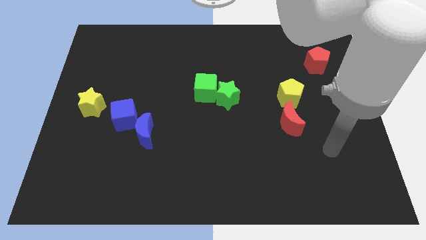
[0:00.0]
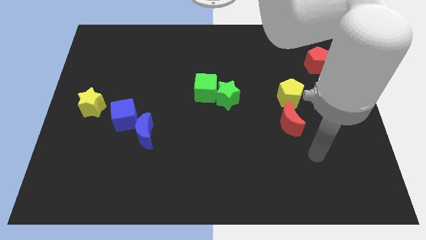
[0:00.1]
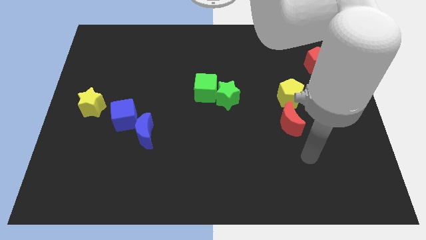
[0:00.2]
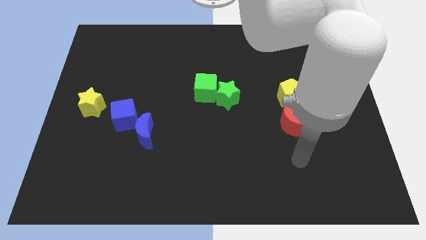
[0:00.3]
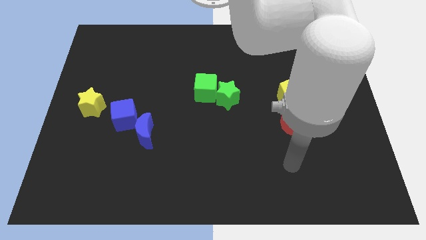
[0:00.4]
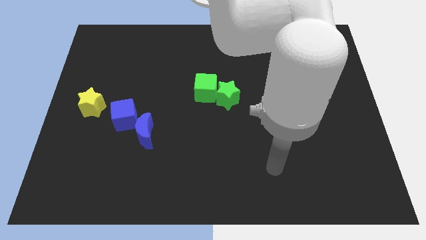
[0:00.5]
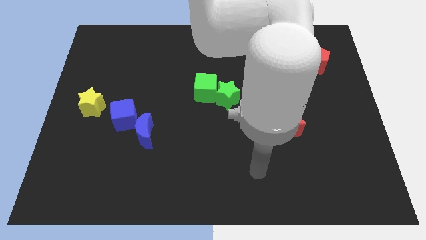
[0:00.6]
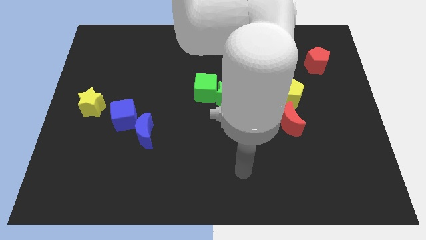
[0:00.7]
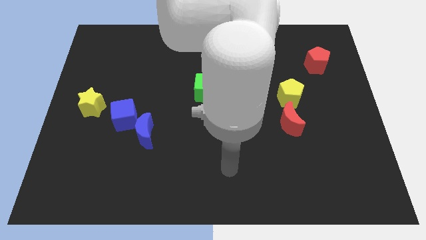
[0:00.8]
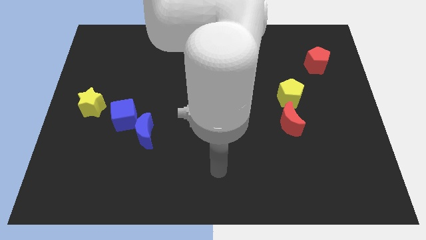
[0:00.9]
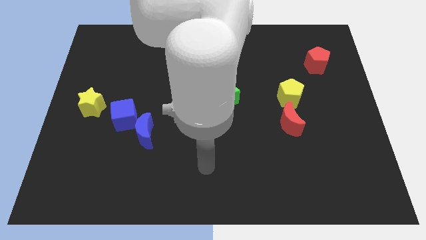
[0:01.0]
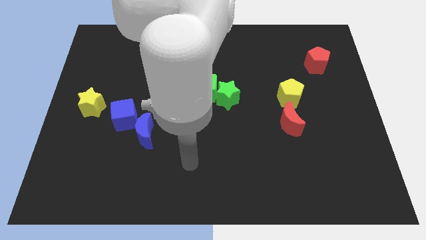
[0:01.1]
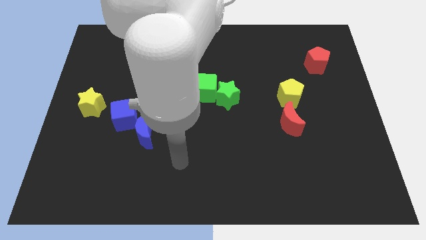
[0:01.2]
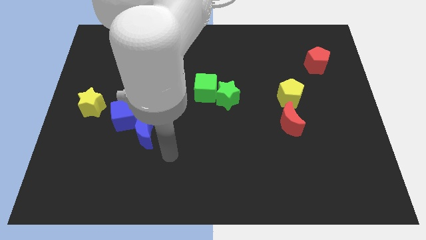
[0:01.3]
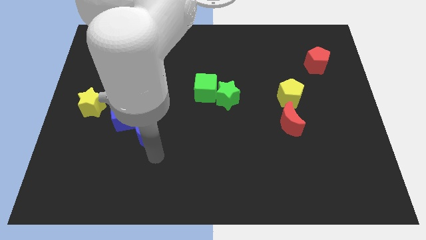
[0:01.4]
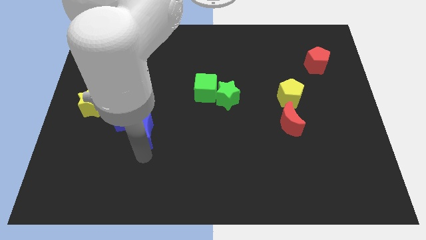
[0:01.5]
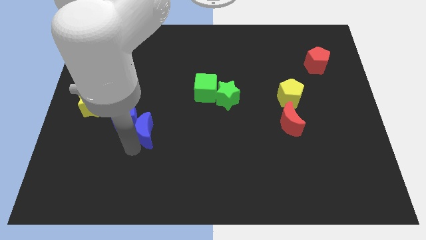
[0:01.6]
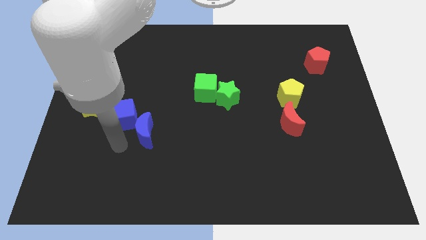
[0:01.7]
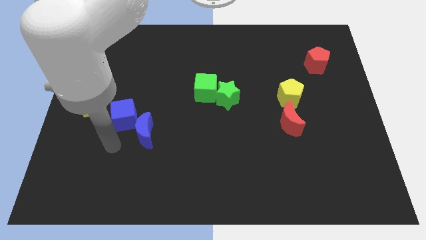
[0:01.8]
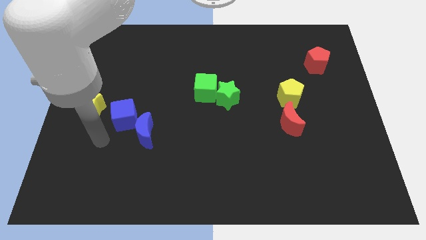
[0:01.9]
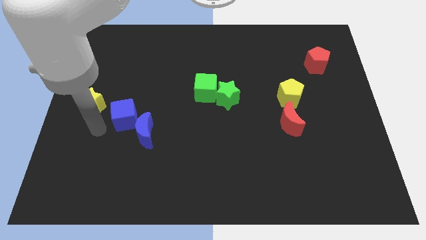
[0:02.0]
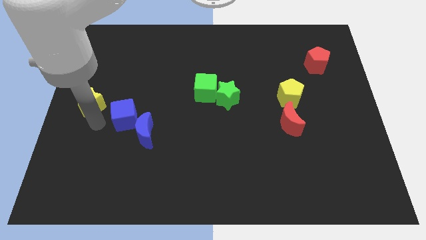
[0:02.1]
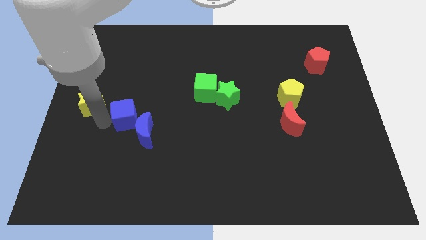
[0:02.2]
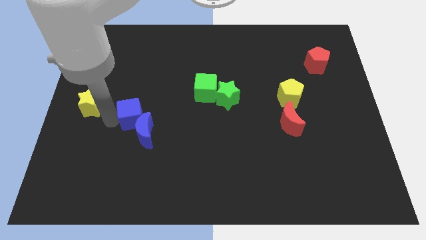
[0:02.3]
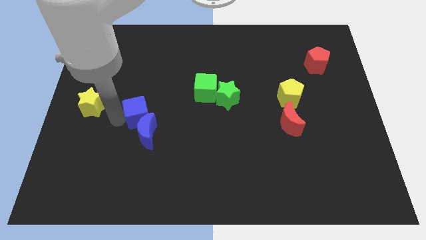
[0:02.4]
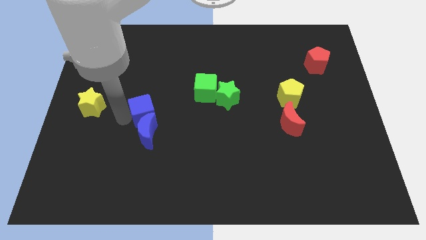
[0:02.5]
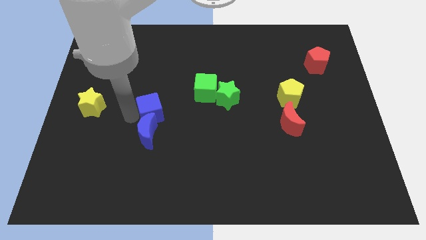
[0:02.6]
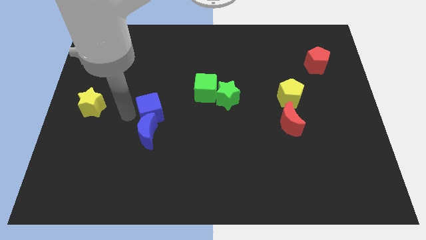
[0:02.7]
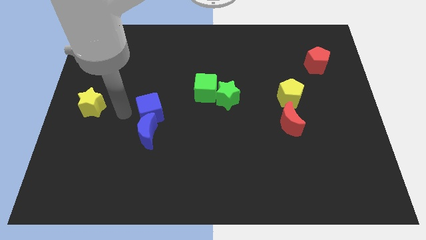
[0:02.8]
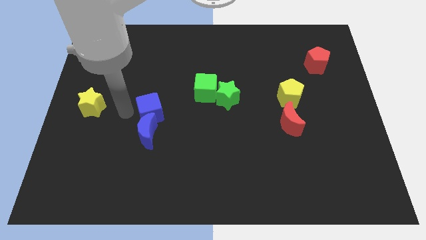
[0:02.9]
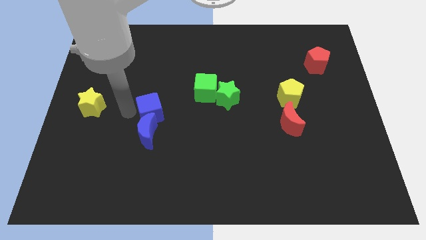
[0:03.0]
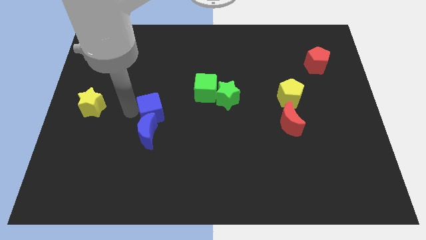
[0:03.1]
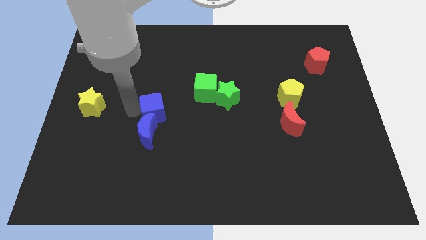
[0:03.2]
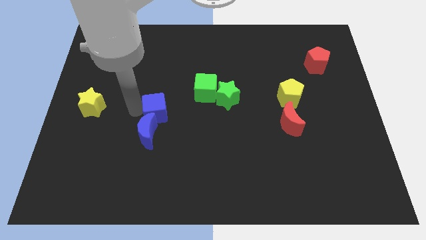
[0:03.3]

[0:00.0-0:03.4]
push the blue cube to the right a bit

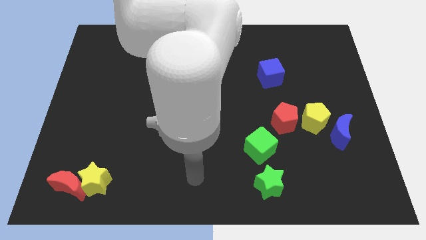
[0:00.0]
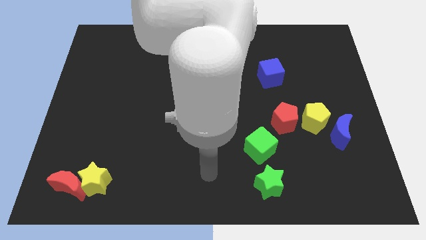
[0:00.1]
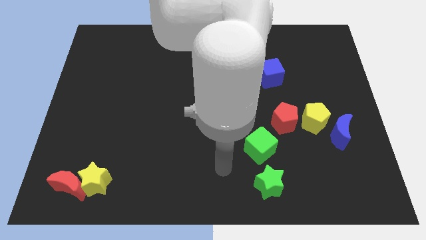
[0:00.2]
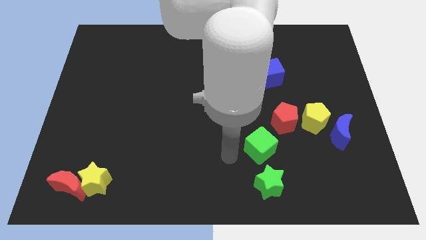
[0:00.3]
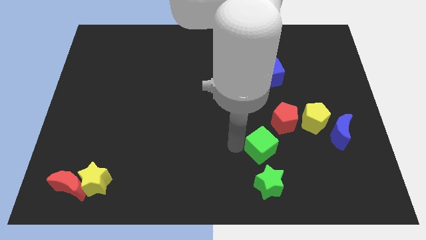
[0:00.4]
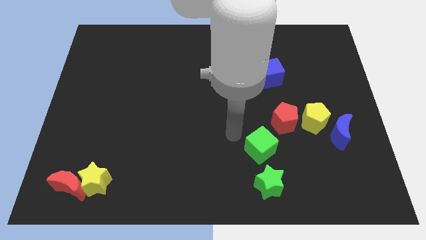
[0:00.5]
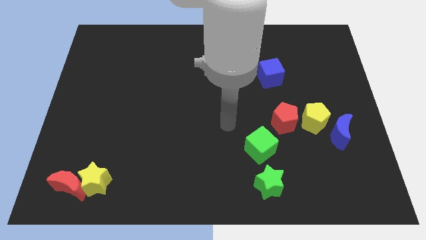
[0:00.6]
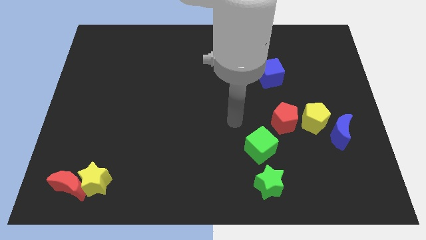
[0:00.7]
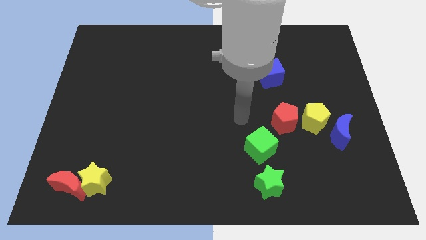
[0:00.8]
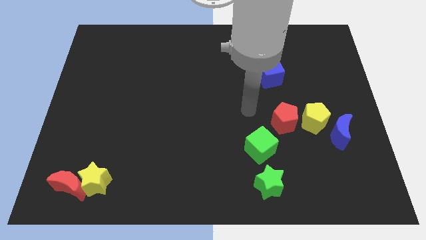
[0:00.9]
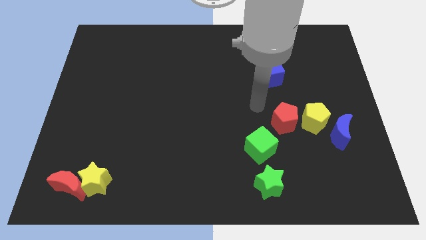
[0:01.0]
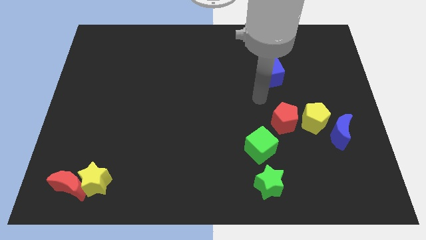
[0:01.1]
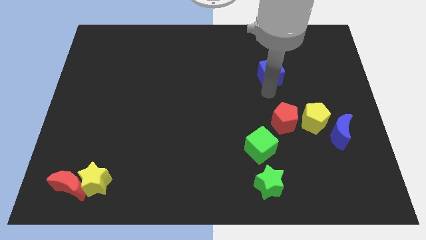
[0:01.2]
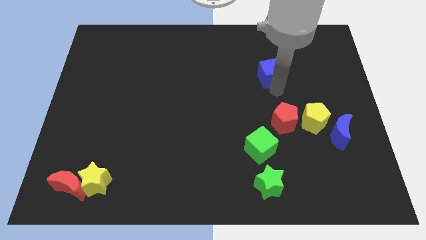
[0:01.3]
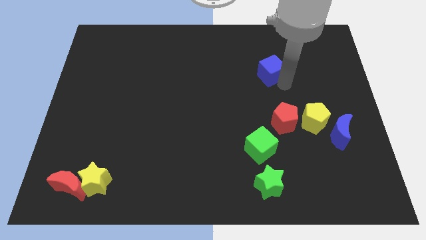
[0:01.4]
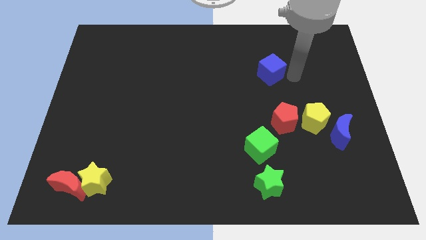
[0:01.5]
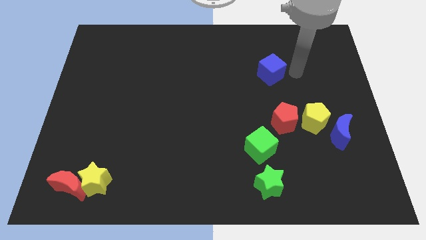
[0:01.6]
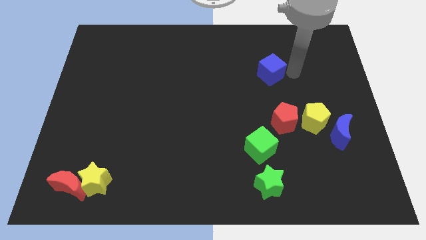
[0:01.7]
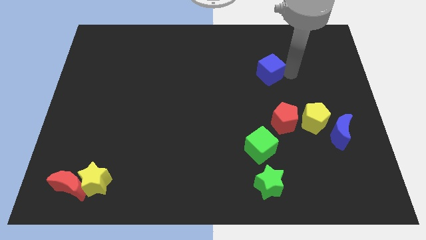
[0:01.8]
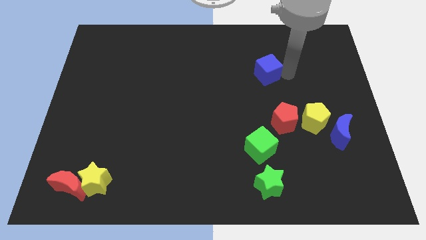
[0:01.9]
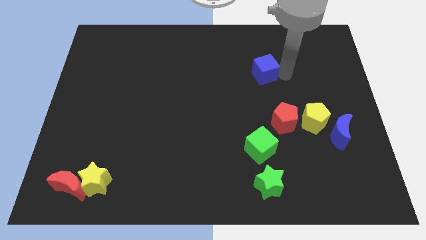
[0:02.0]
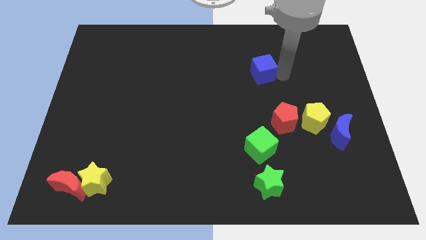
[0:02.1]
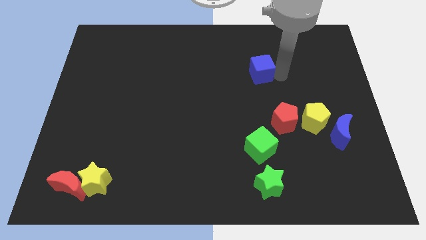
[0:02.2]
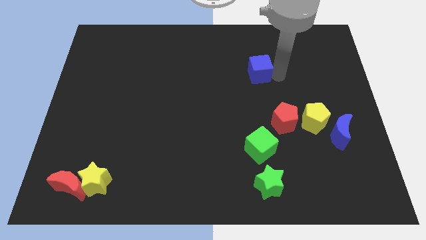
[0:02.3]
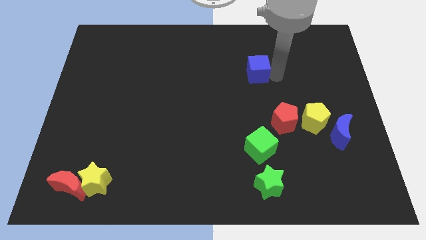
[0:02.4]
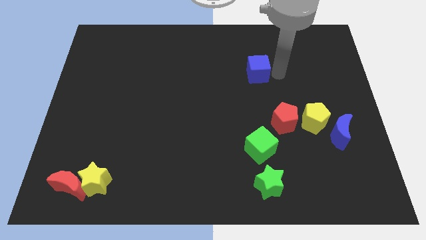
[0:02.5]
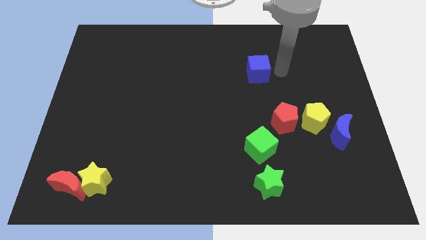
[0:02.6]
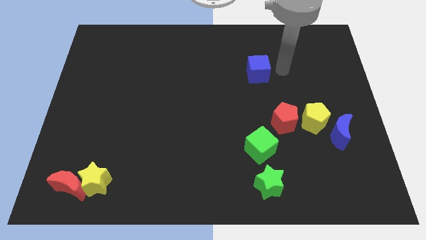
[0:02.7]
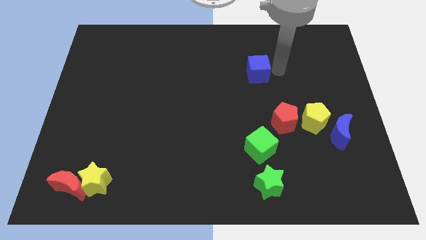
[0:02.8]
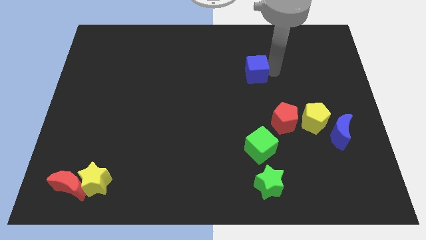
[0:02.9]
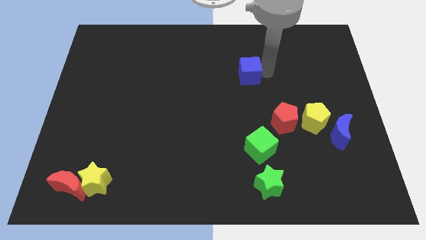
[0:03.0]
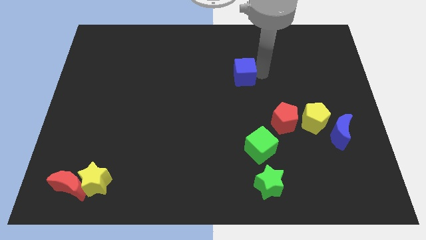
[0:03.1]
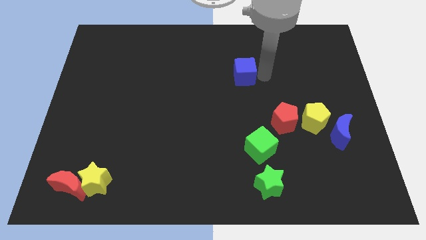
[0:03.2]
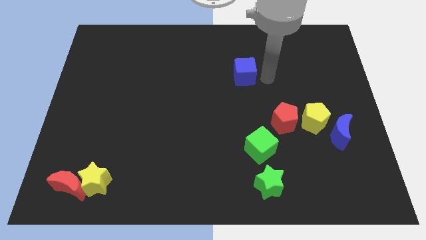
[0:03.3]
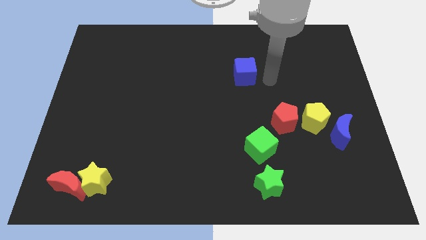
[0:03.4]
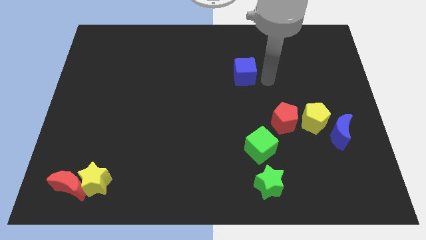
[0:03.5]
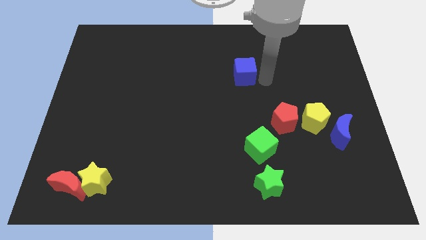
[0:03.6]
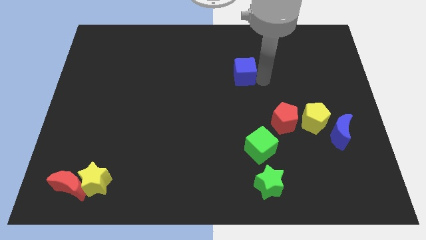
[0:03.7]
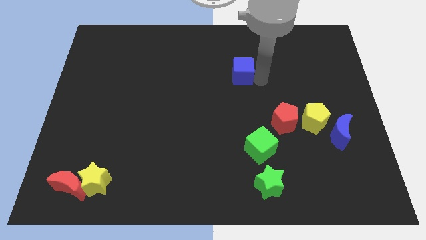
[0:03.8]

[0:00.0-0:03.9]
move the blue cube somewhat to the left

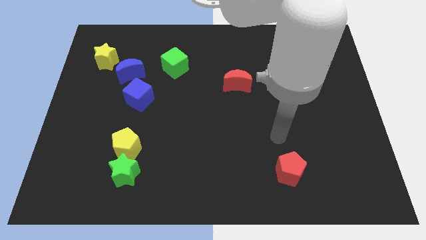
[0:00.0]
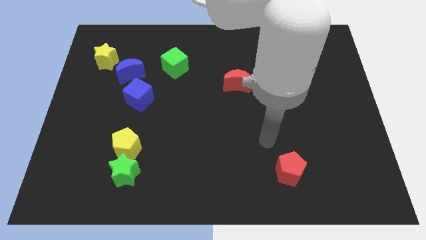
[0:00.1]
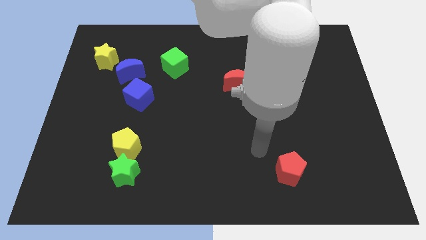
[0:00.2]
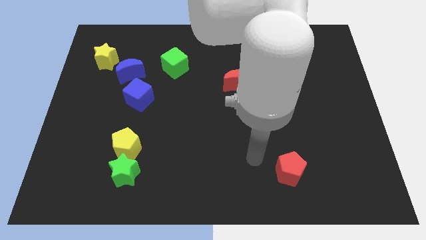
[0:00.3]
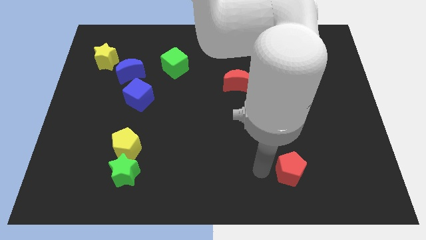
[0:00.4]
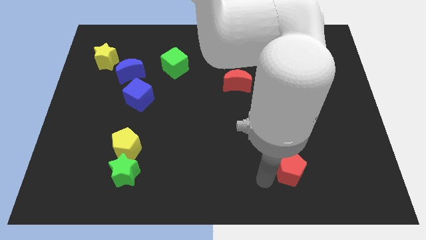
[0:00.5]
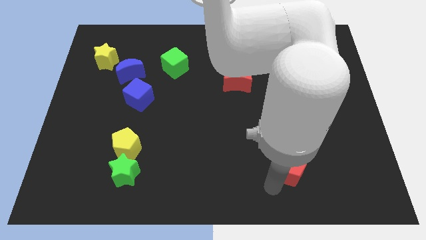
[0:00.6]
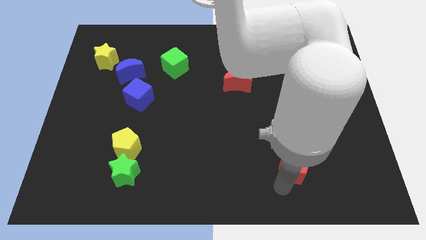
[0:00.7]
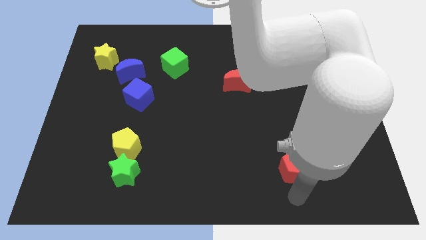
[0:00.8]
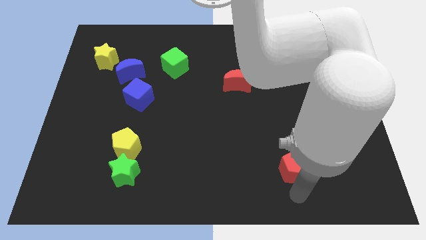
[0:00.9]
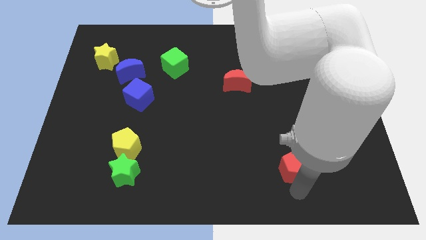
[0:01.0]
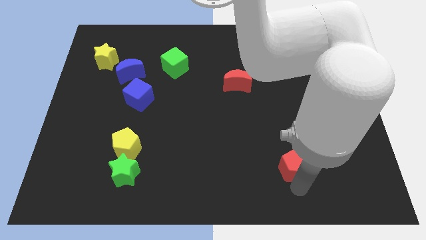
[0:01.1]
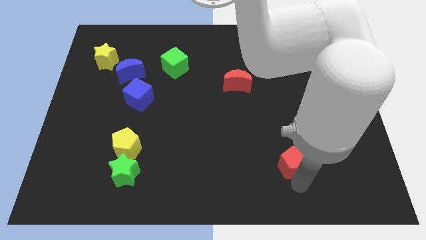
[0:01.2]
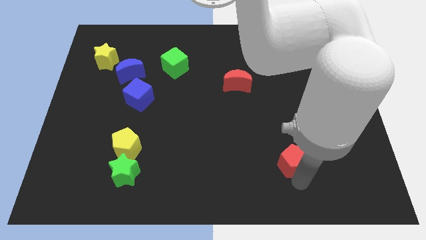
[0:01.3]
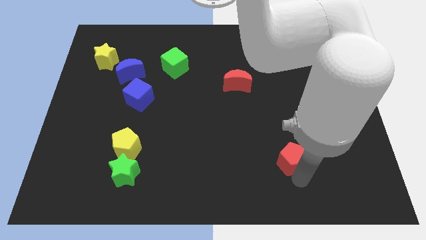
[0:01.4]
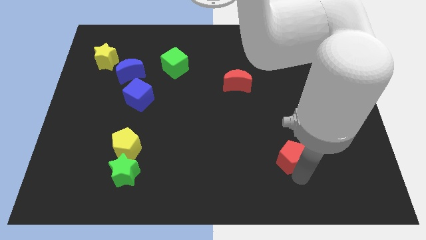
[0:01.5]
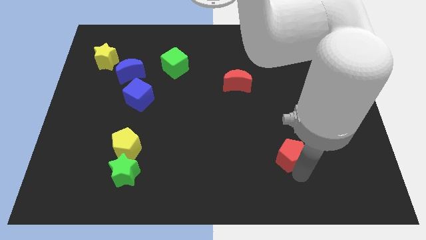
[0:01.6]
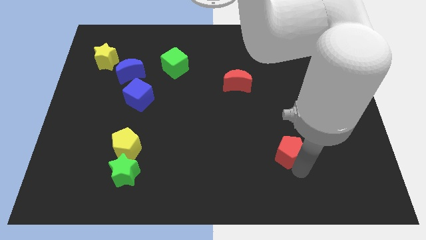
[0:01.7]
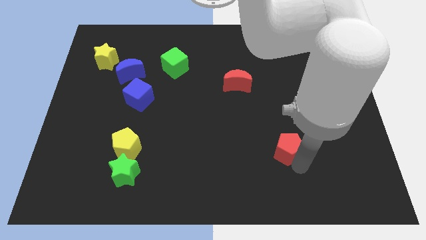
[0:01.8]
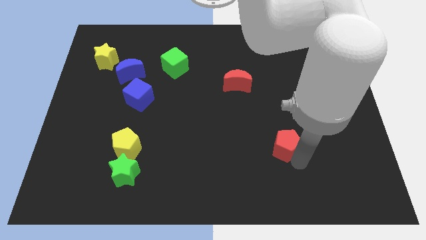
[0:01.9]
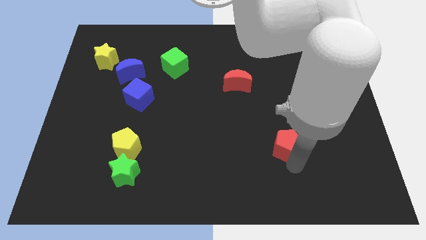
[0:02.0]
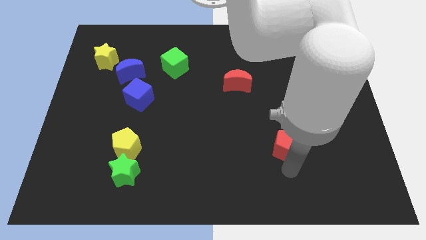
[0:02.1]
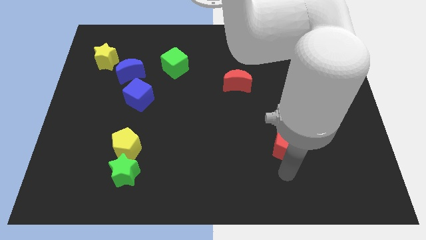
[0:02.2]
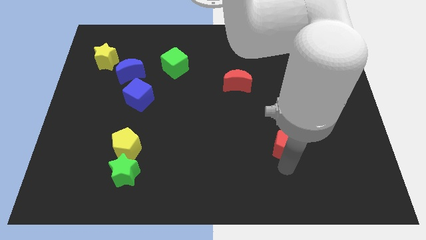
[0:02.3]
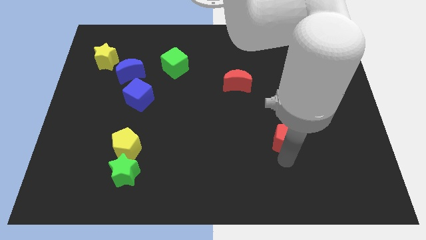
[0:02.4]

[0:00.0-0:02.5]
push the red pentagon a little bit upwards
